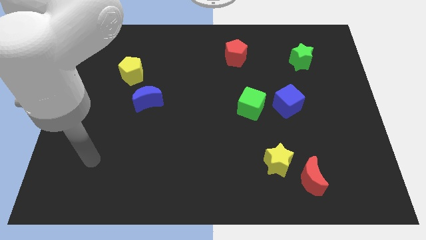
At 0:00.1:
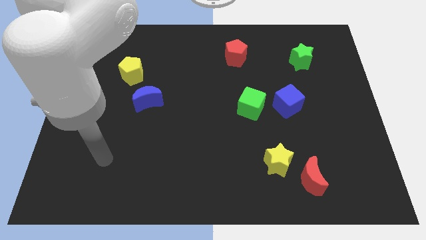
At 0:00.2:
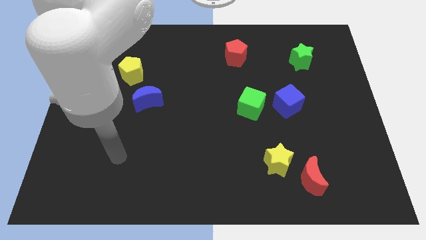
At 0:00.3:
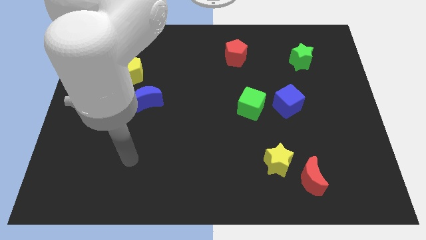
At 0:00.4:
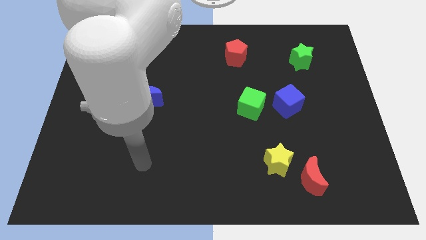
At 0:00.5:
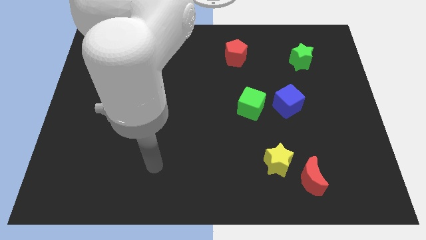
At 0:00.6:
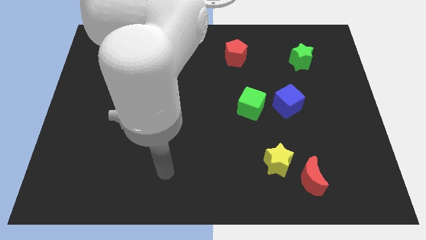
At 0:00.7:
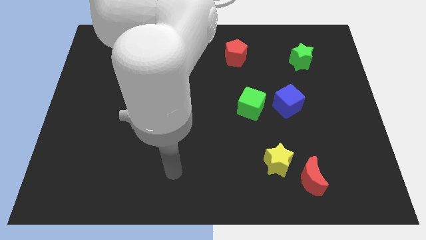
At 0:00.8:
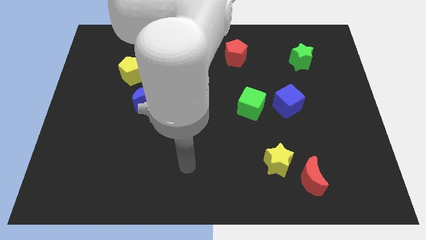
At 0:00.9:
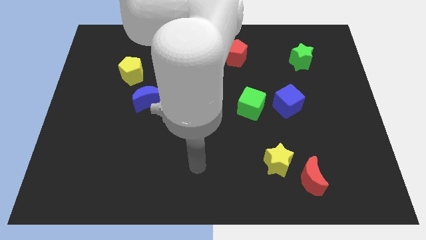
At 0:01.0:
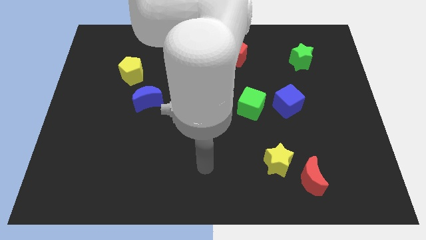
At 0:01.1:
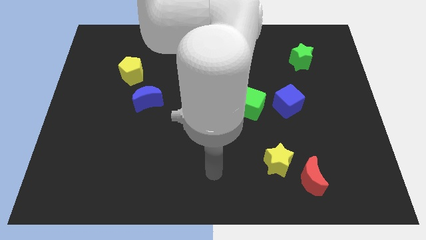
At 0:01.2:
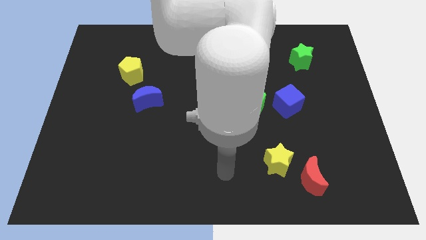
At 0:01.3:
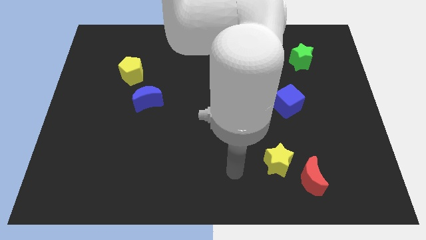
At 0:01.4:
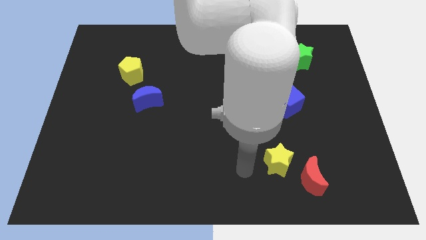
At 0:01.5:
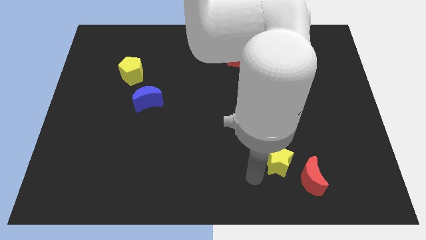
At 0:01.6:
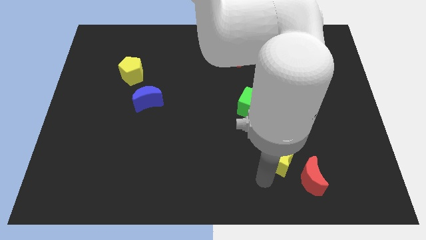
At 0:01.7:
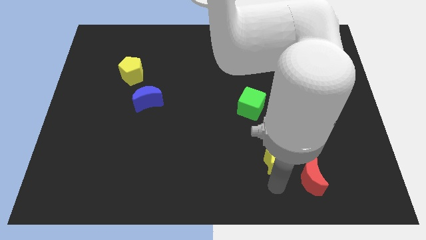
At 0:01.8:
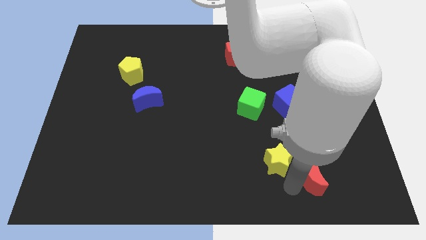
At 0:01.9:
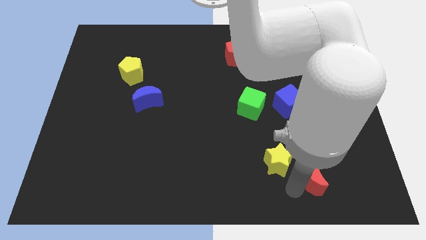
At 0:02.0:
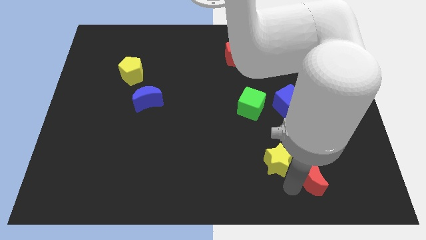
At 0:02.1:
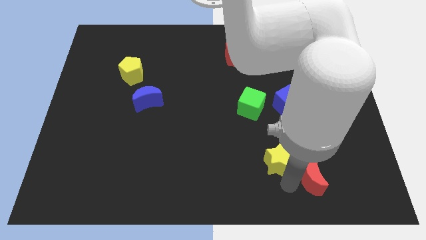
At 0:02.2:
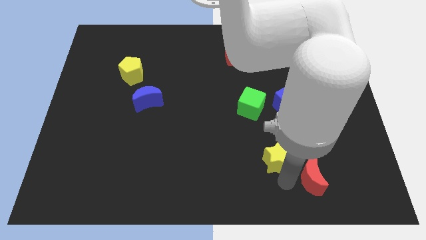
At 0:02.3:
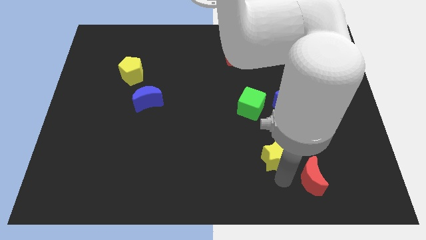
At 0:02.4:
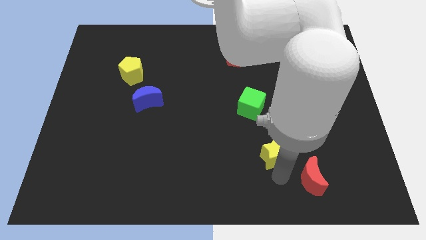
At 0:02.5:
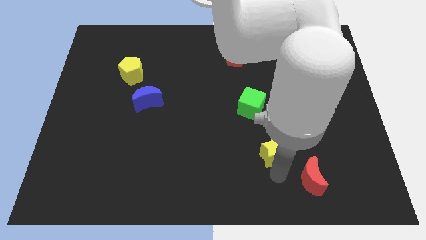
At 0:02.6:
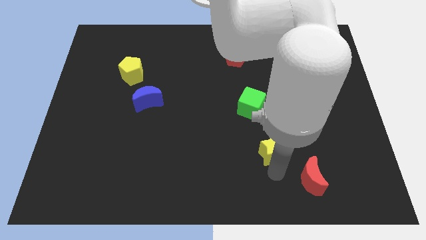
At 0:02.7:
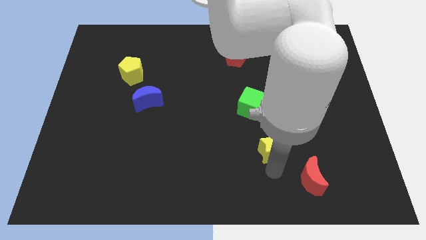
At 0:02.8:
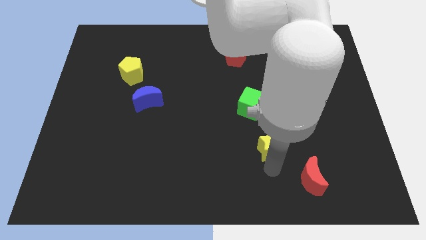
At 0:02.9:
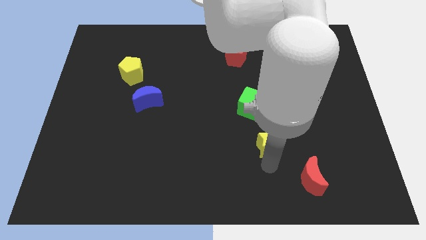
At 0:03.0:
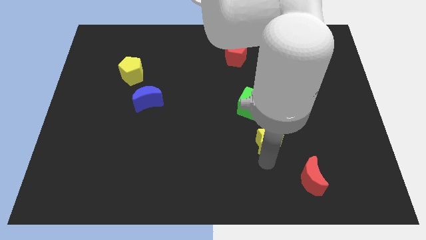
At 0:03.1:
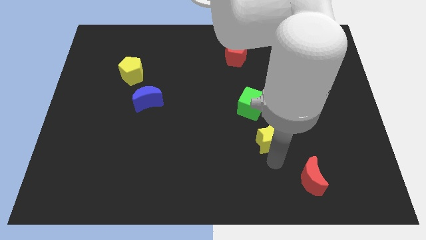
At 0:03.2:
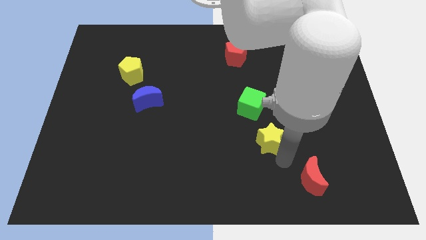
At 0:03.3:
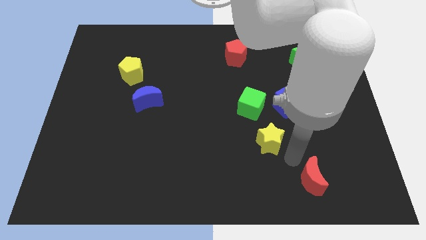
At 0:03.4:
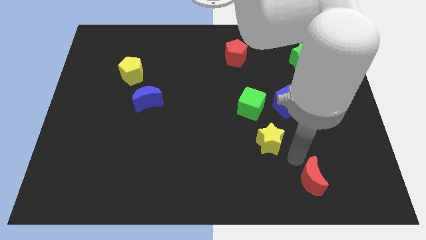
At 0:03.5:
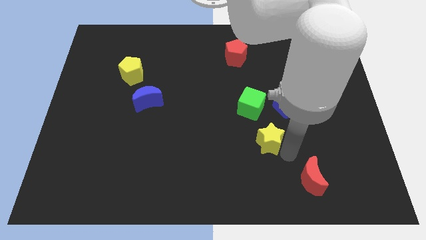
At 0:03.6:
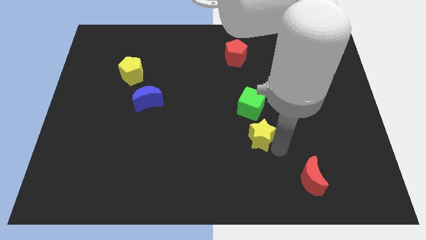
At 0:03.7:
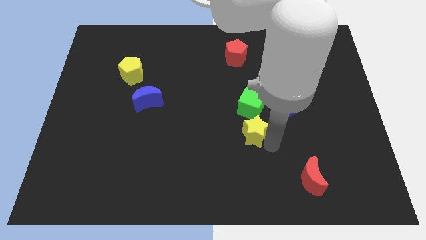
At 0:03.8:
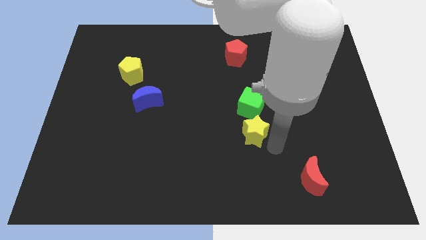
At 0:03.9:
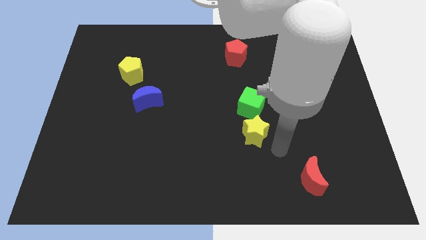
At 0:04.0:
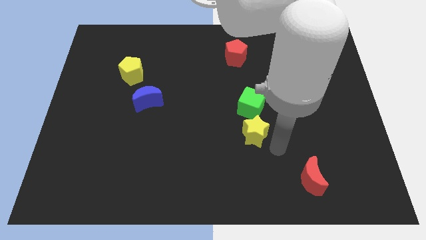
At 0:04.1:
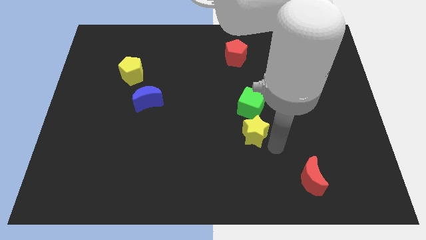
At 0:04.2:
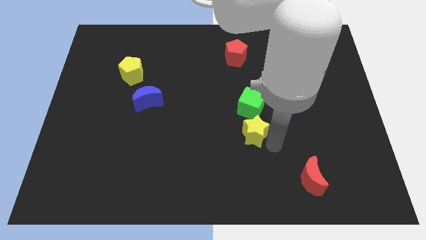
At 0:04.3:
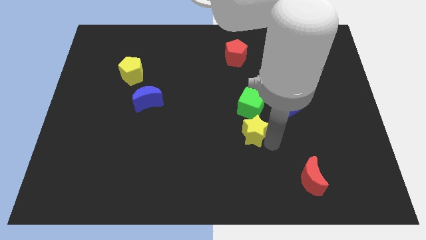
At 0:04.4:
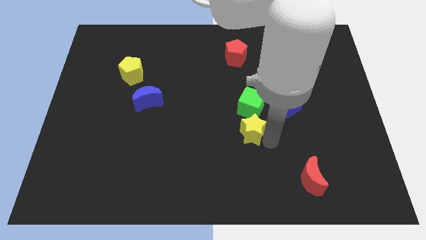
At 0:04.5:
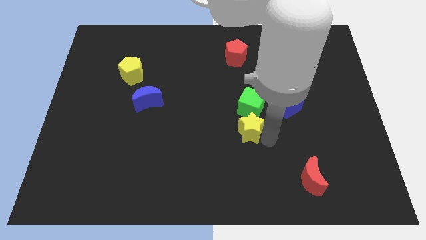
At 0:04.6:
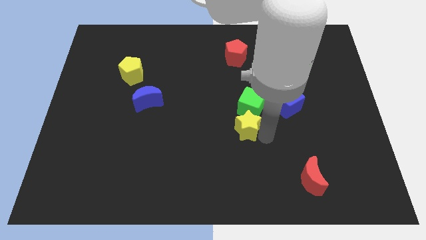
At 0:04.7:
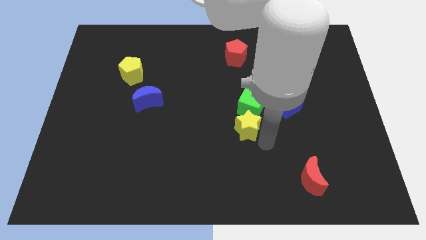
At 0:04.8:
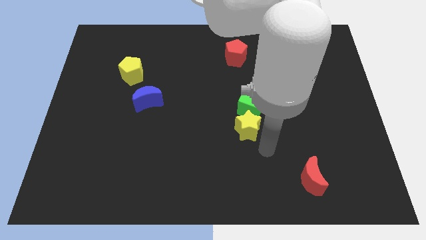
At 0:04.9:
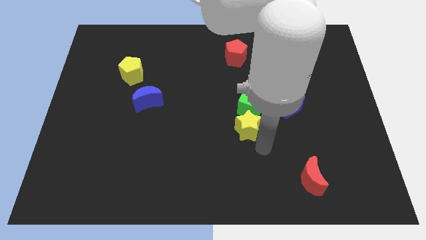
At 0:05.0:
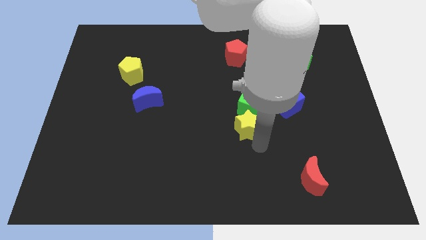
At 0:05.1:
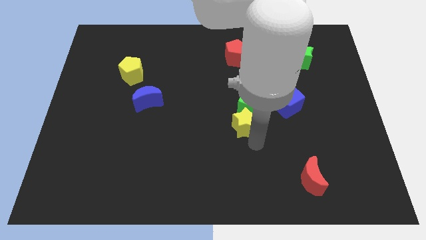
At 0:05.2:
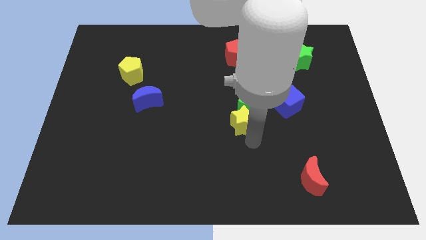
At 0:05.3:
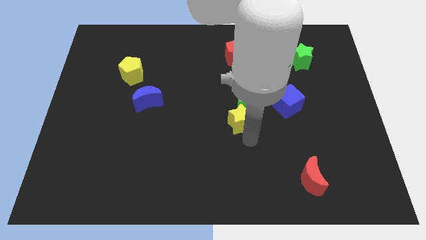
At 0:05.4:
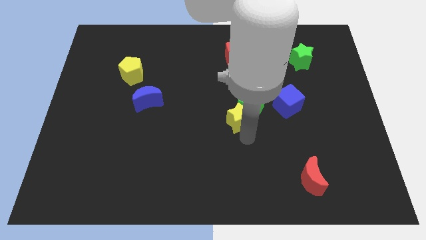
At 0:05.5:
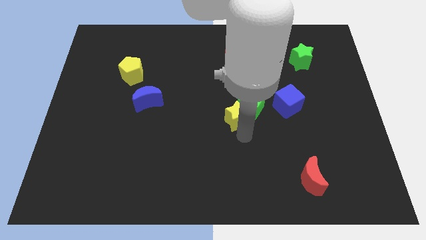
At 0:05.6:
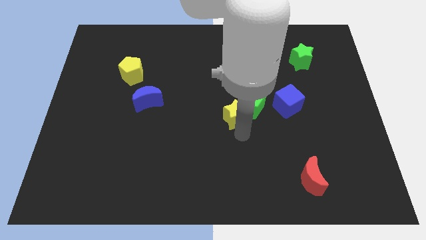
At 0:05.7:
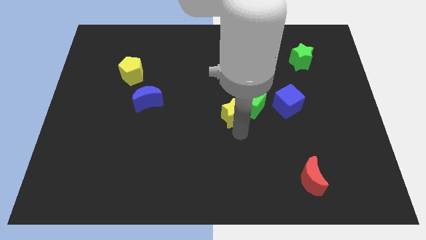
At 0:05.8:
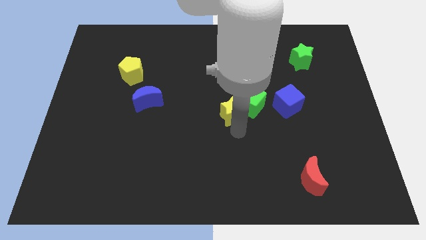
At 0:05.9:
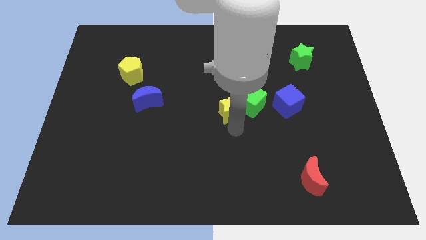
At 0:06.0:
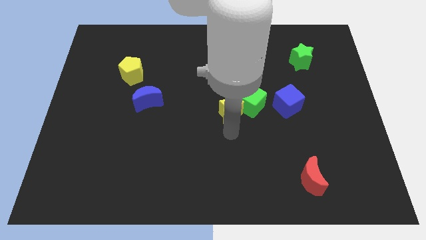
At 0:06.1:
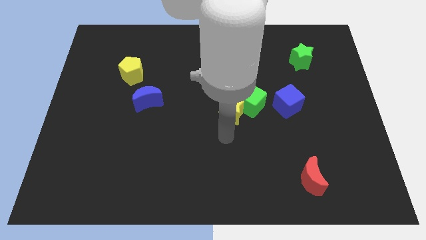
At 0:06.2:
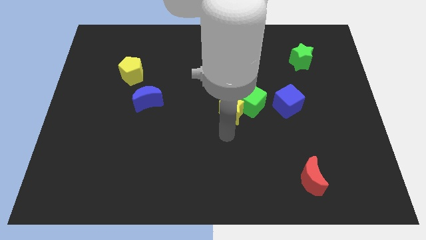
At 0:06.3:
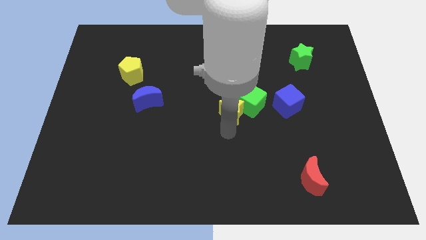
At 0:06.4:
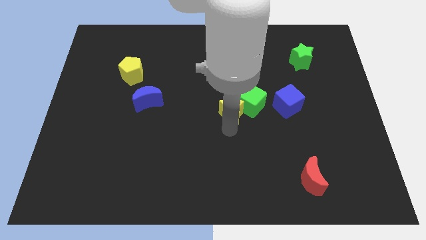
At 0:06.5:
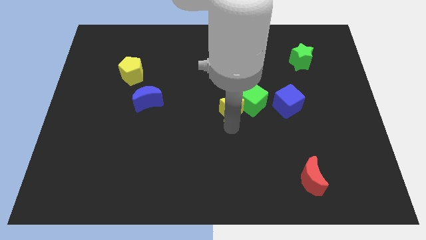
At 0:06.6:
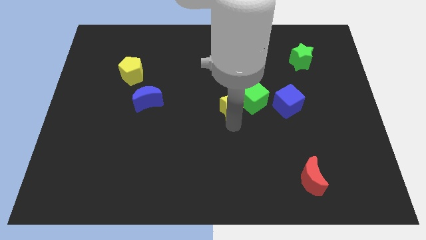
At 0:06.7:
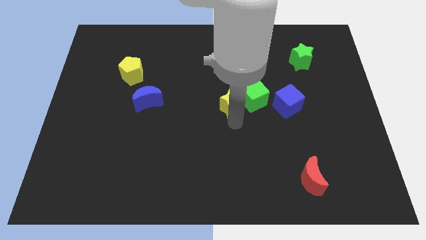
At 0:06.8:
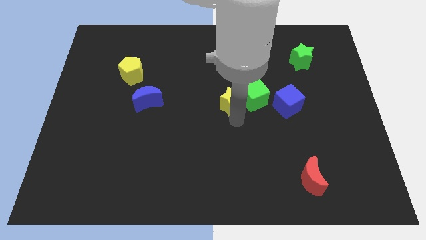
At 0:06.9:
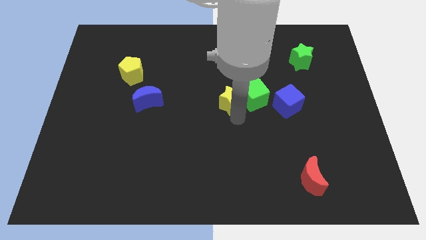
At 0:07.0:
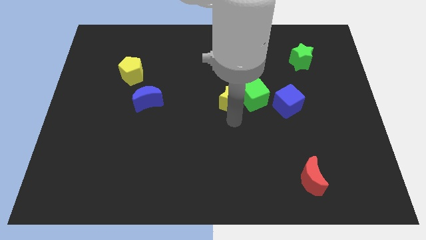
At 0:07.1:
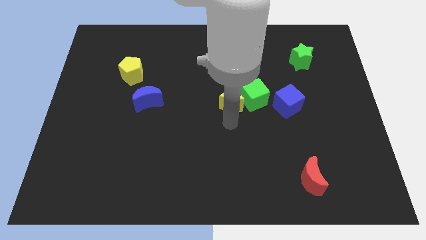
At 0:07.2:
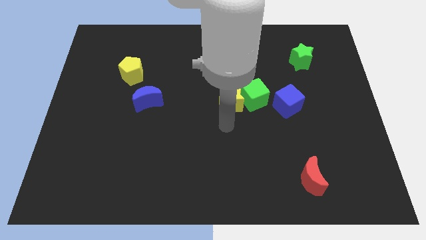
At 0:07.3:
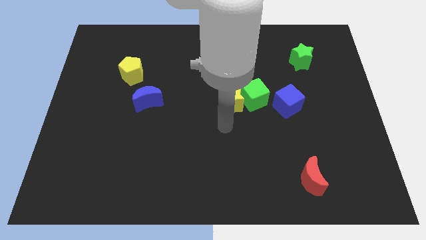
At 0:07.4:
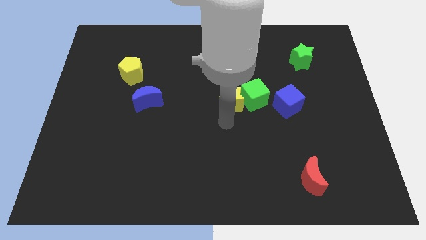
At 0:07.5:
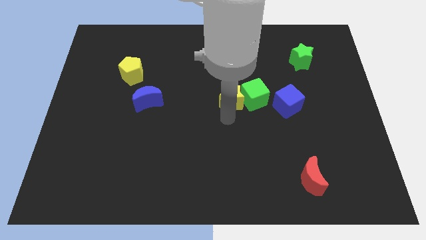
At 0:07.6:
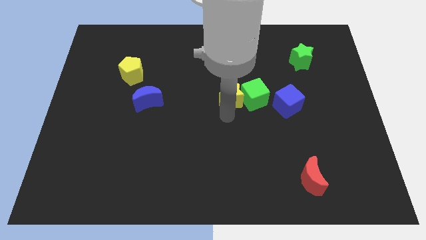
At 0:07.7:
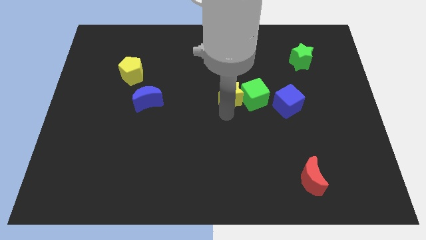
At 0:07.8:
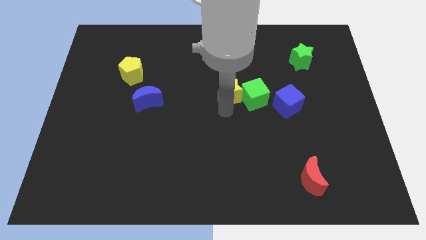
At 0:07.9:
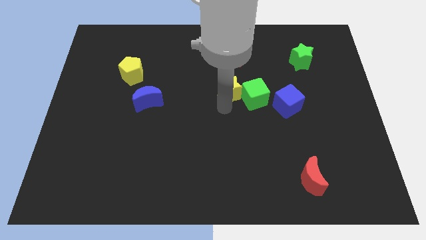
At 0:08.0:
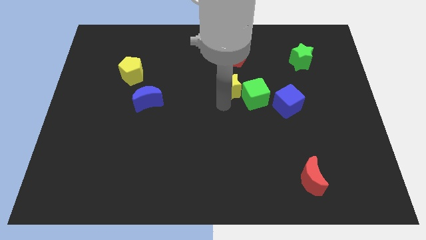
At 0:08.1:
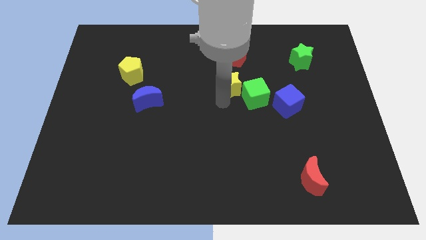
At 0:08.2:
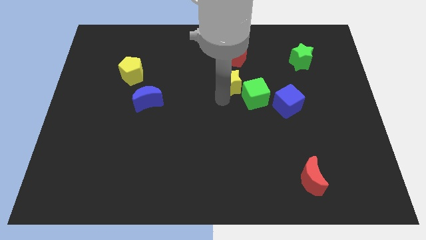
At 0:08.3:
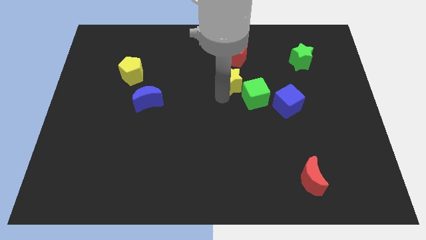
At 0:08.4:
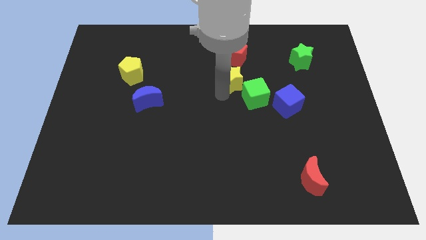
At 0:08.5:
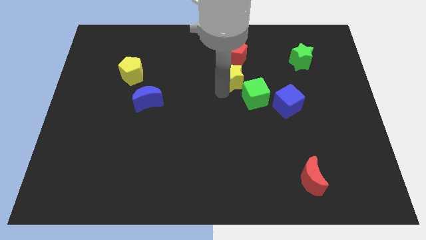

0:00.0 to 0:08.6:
push the yellow star upwards
